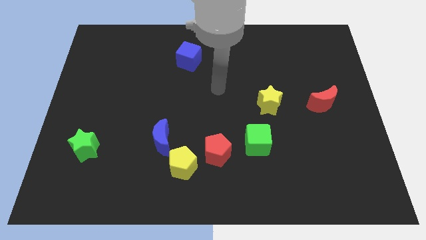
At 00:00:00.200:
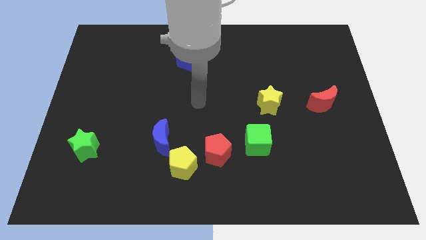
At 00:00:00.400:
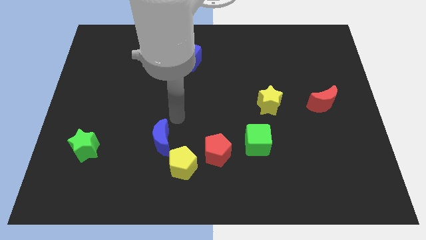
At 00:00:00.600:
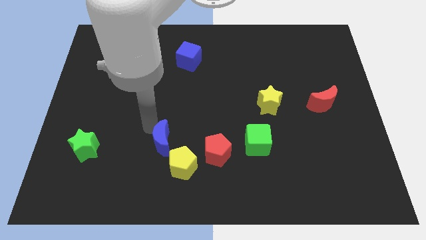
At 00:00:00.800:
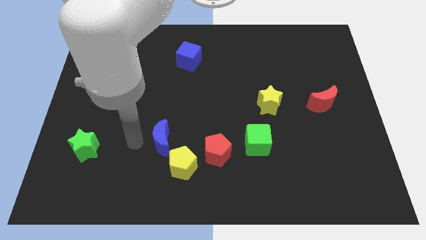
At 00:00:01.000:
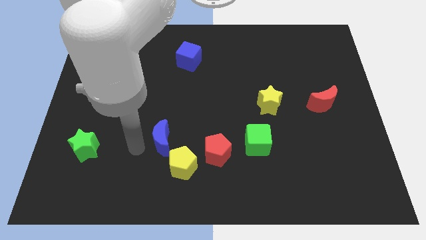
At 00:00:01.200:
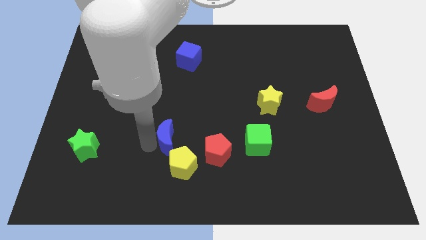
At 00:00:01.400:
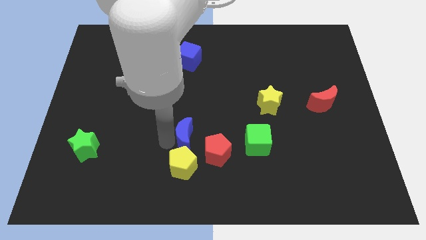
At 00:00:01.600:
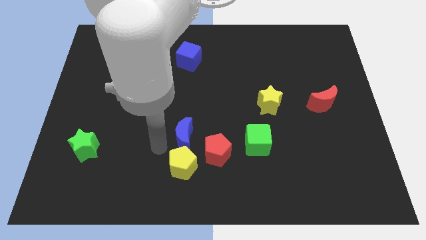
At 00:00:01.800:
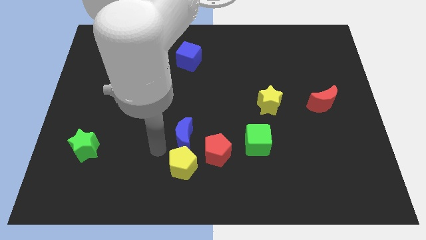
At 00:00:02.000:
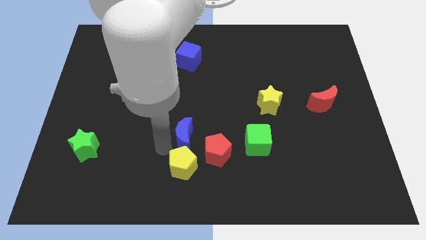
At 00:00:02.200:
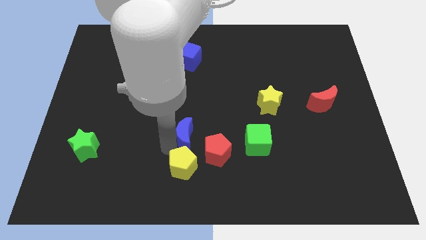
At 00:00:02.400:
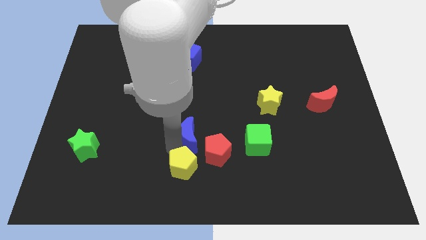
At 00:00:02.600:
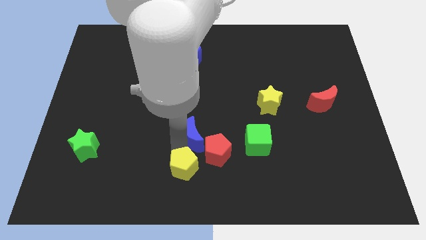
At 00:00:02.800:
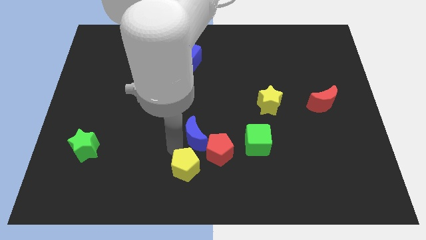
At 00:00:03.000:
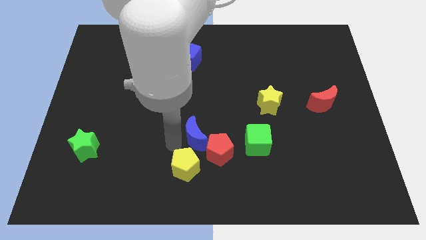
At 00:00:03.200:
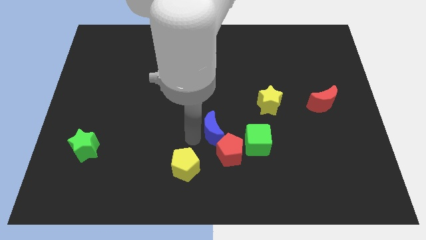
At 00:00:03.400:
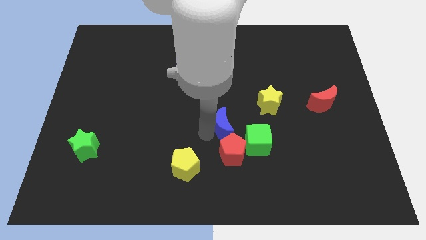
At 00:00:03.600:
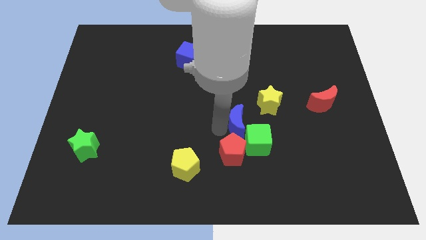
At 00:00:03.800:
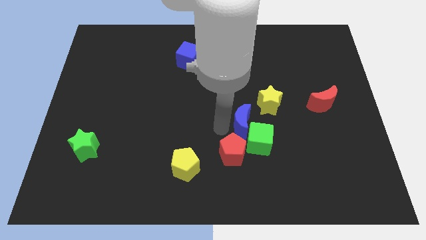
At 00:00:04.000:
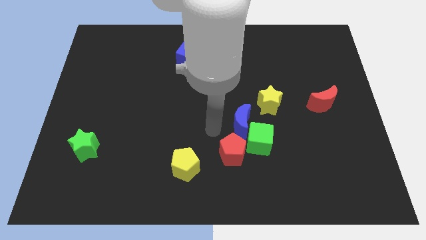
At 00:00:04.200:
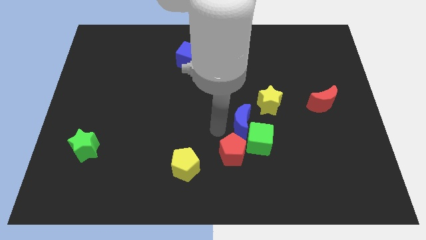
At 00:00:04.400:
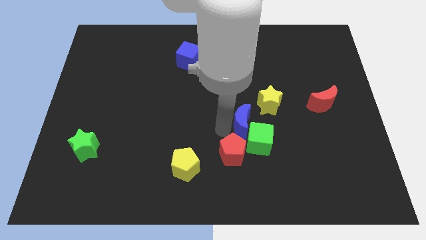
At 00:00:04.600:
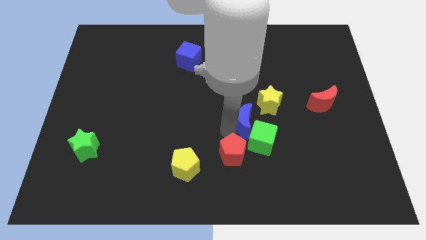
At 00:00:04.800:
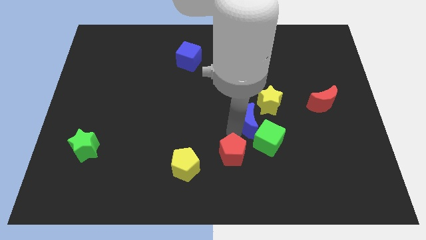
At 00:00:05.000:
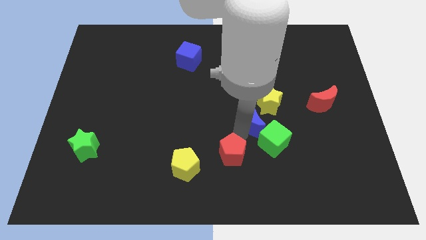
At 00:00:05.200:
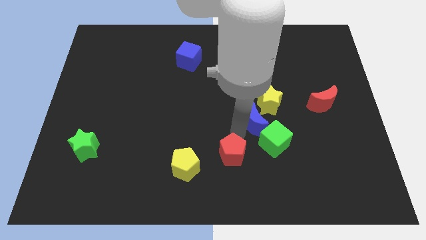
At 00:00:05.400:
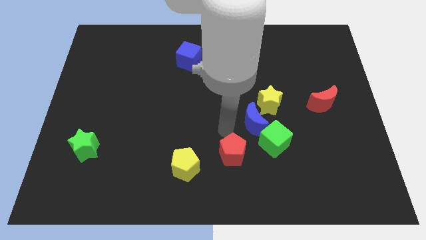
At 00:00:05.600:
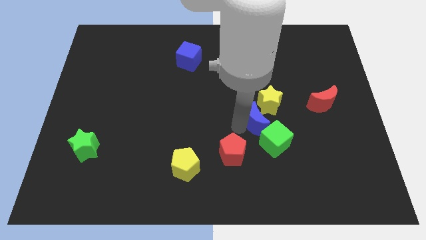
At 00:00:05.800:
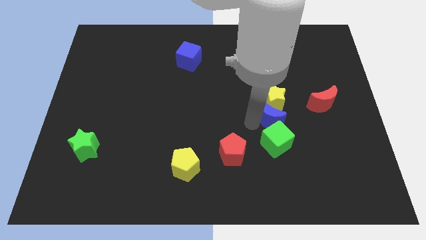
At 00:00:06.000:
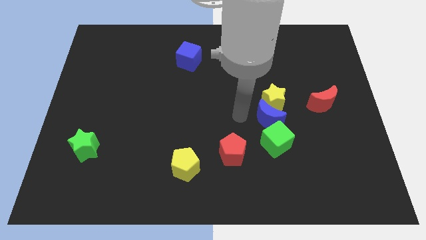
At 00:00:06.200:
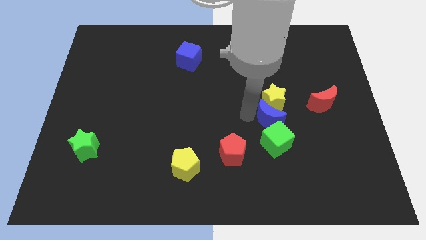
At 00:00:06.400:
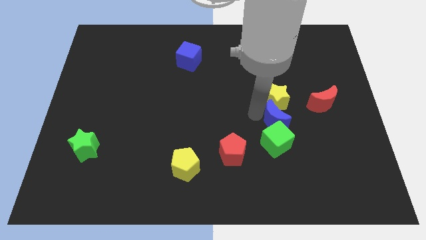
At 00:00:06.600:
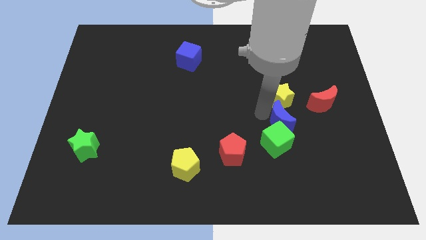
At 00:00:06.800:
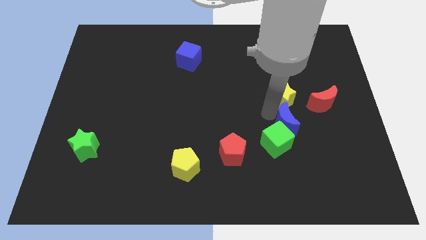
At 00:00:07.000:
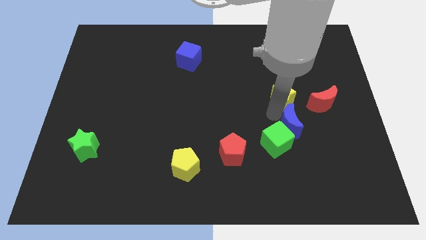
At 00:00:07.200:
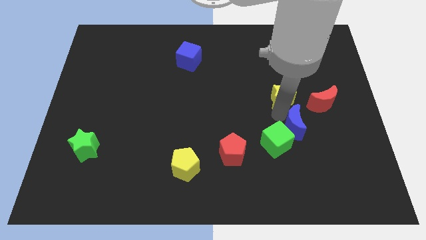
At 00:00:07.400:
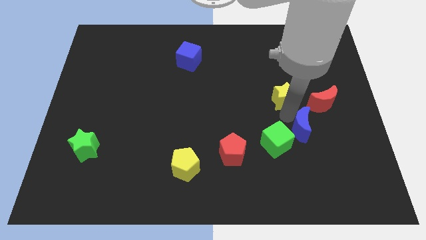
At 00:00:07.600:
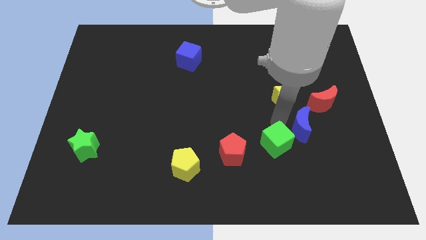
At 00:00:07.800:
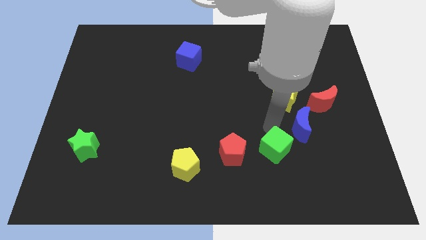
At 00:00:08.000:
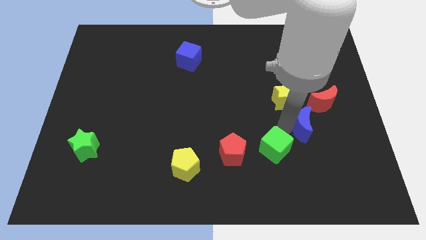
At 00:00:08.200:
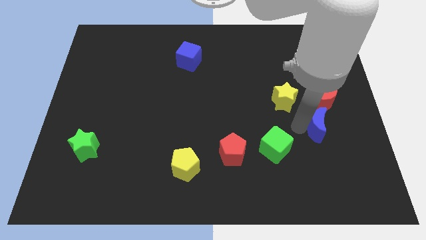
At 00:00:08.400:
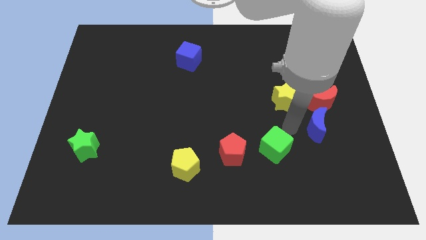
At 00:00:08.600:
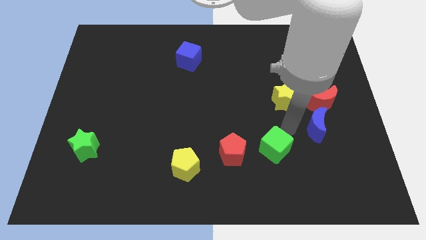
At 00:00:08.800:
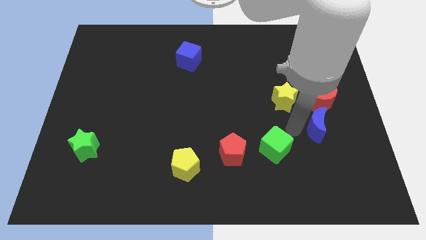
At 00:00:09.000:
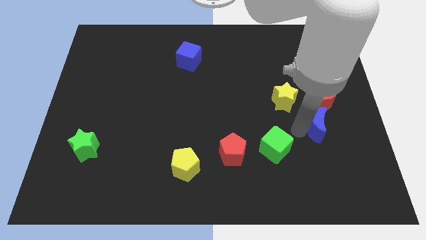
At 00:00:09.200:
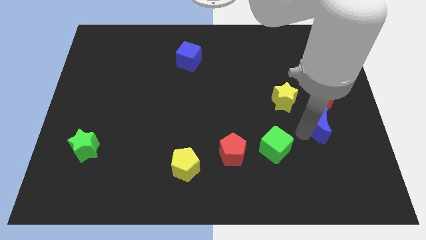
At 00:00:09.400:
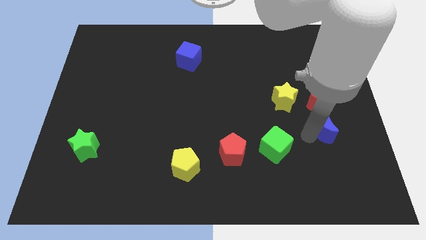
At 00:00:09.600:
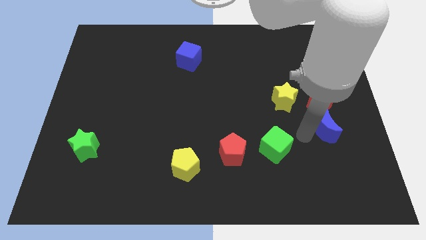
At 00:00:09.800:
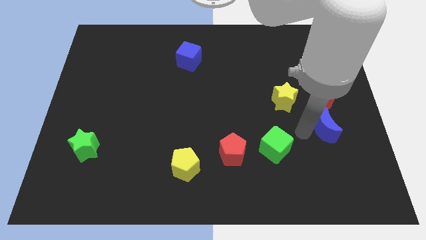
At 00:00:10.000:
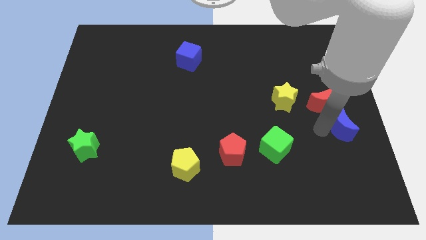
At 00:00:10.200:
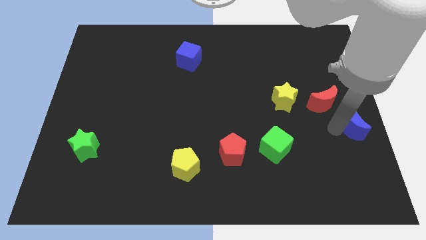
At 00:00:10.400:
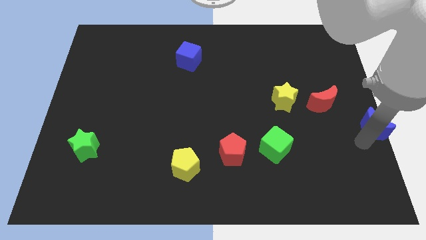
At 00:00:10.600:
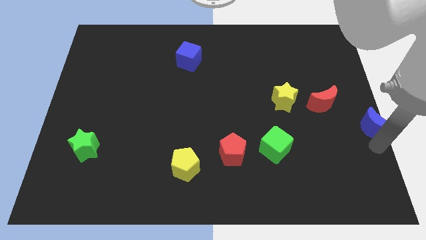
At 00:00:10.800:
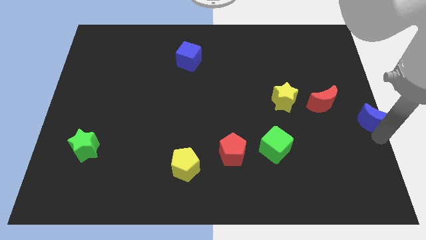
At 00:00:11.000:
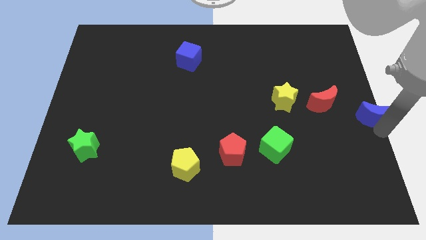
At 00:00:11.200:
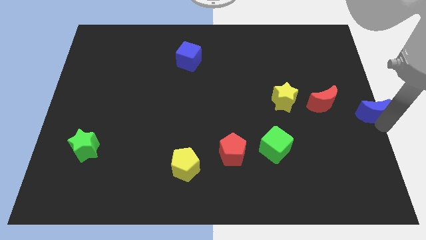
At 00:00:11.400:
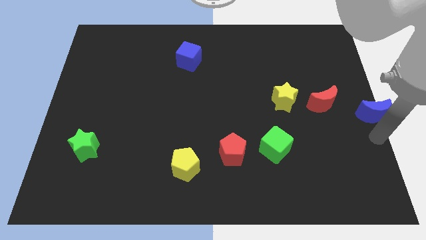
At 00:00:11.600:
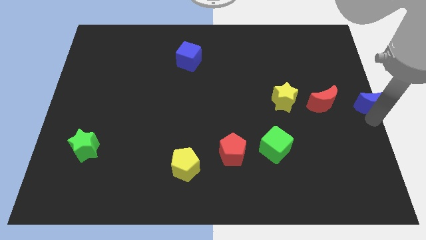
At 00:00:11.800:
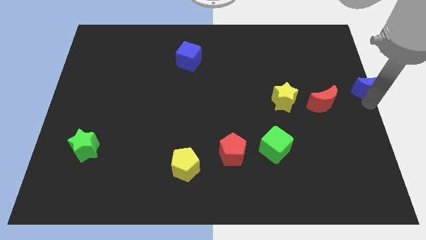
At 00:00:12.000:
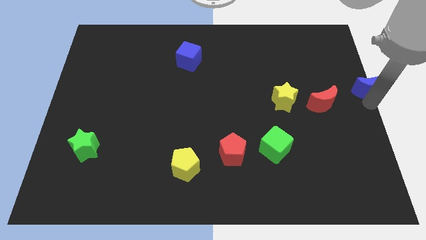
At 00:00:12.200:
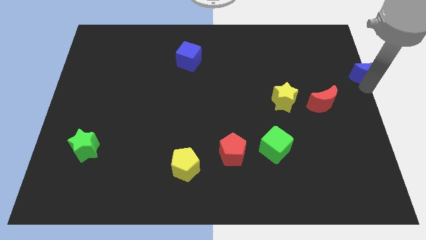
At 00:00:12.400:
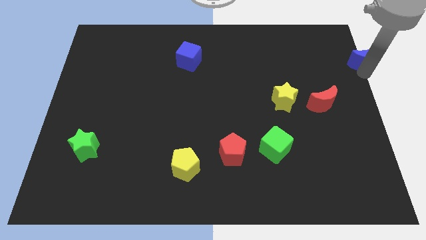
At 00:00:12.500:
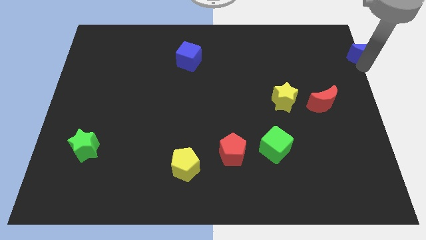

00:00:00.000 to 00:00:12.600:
move the blue moon to the top right corner
